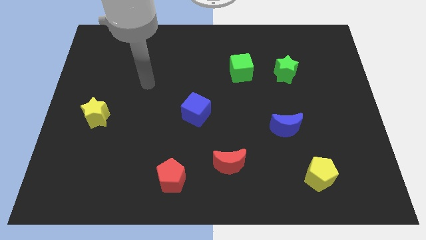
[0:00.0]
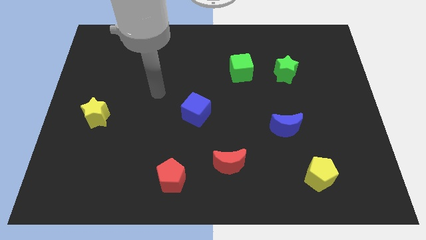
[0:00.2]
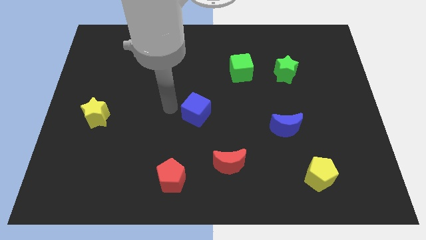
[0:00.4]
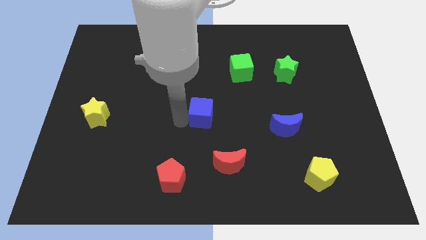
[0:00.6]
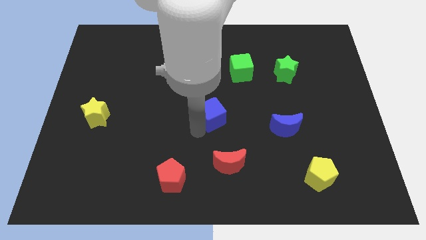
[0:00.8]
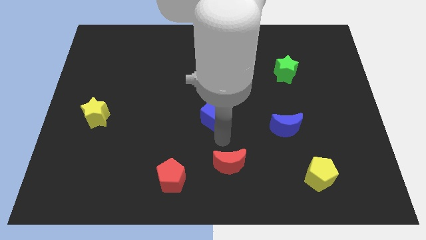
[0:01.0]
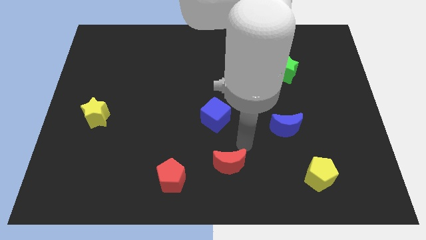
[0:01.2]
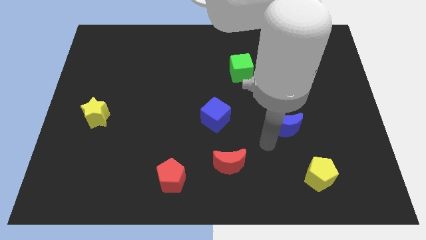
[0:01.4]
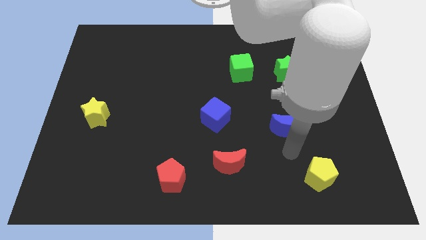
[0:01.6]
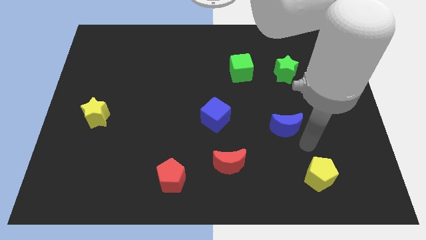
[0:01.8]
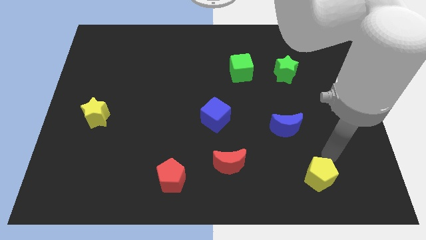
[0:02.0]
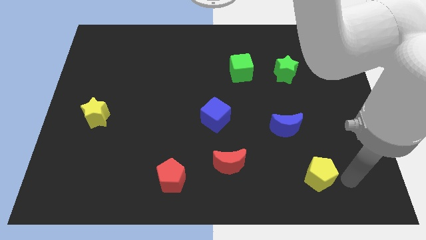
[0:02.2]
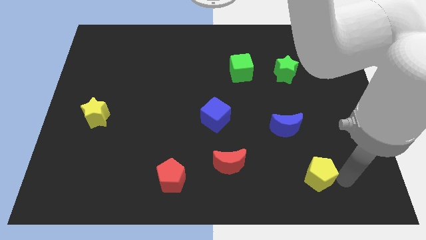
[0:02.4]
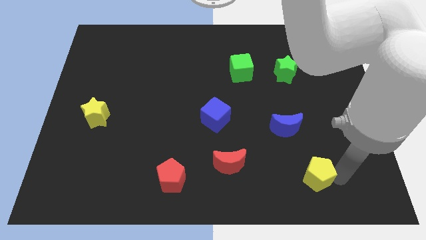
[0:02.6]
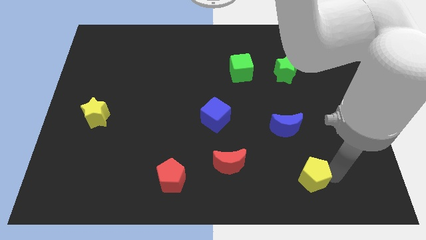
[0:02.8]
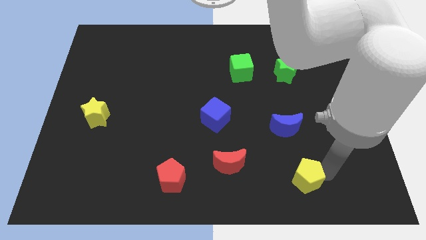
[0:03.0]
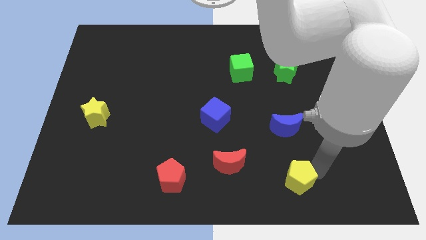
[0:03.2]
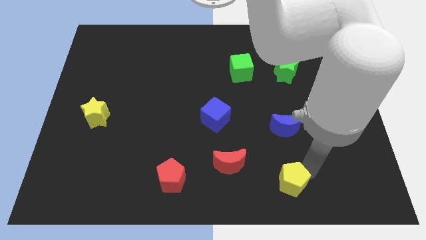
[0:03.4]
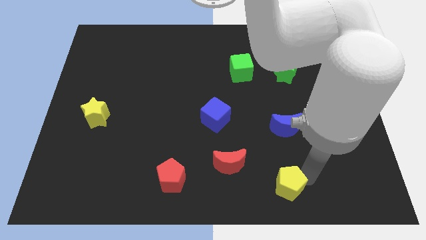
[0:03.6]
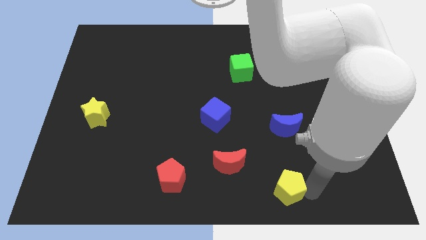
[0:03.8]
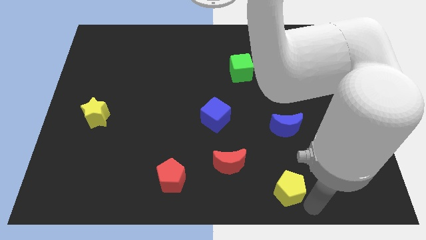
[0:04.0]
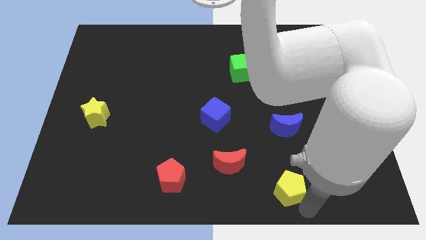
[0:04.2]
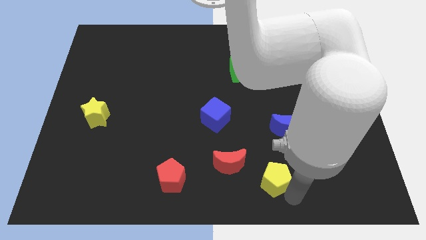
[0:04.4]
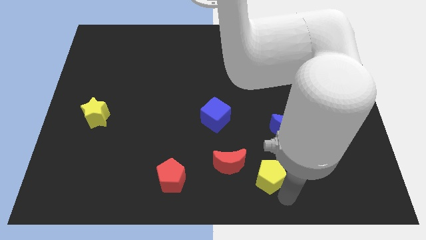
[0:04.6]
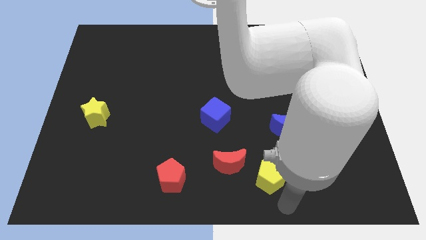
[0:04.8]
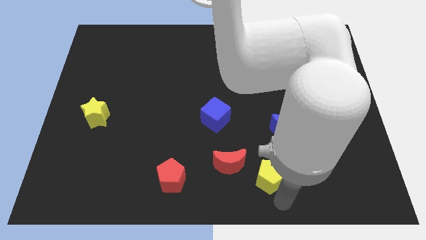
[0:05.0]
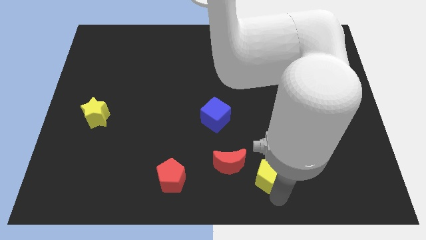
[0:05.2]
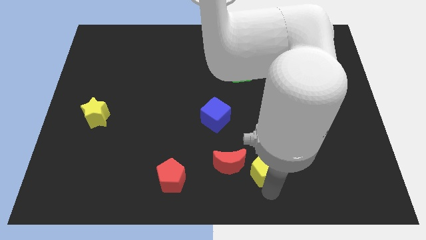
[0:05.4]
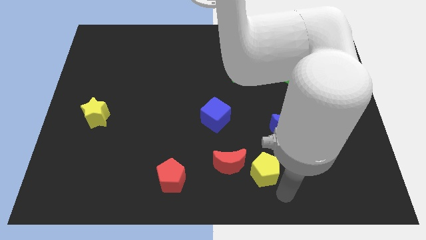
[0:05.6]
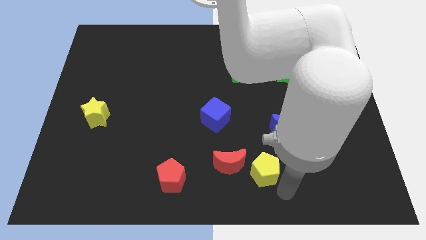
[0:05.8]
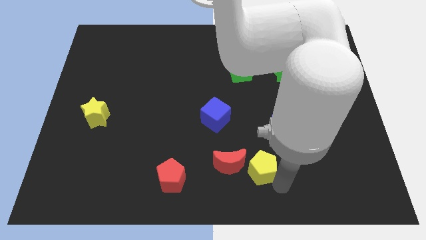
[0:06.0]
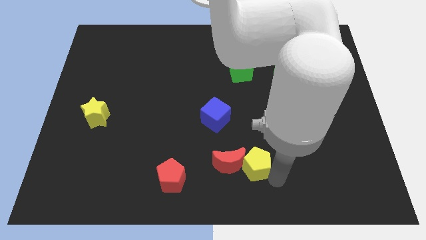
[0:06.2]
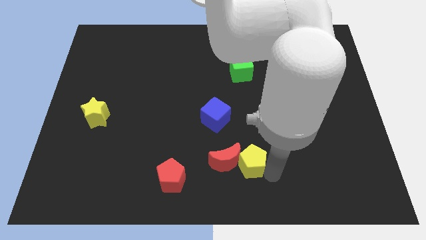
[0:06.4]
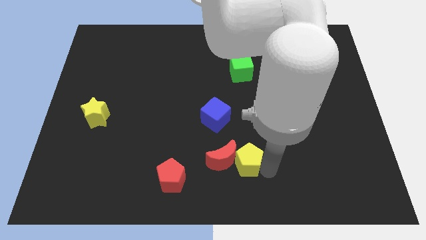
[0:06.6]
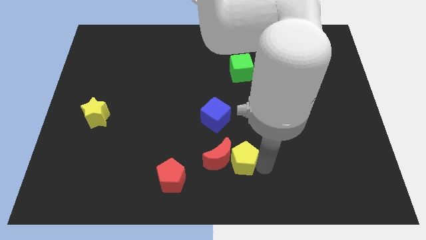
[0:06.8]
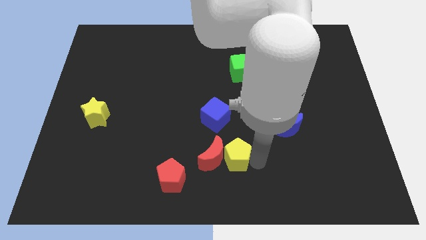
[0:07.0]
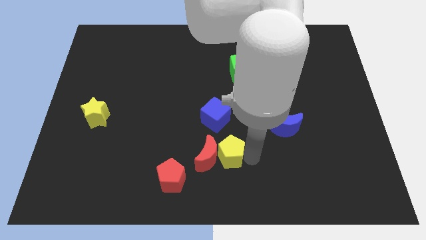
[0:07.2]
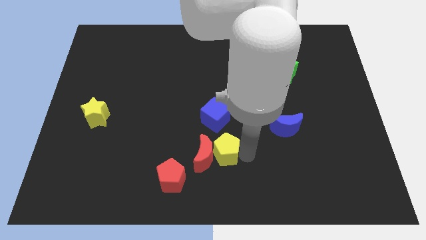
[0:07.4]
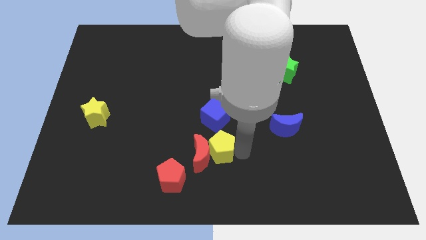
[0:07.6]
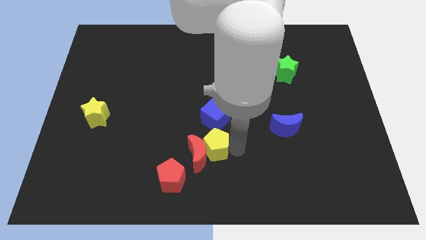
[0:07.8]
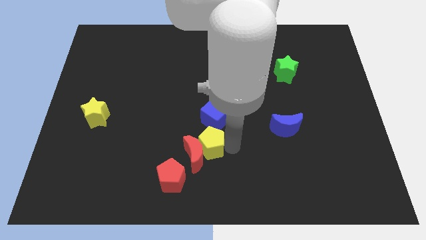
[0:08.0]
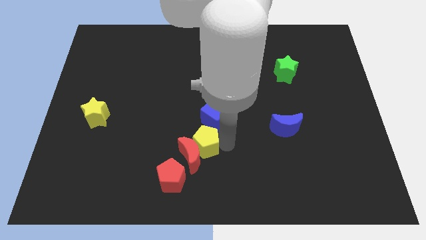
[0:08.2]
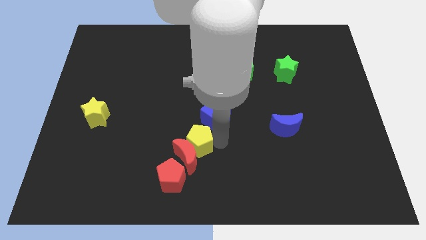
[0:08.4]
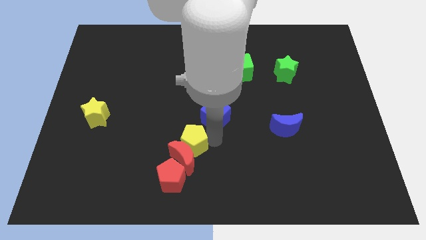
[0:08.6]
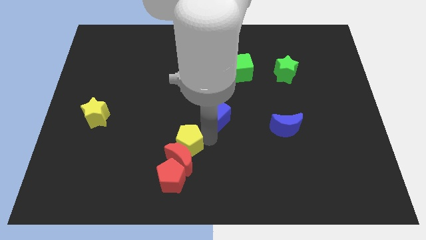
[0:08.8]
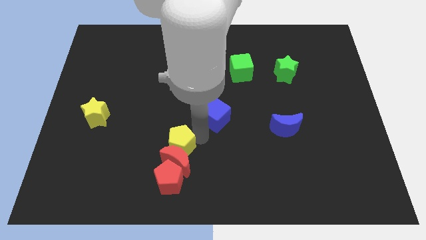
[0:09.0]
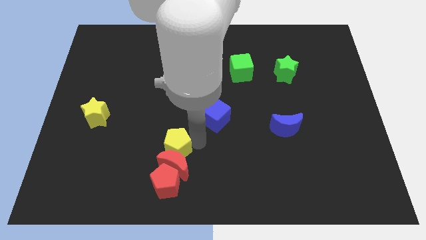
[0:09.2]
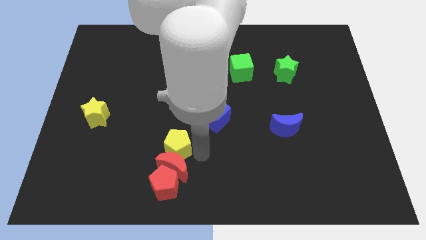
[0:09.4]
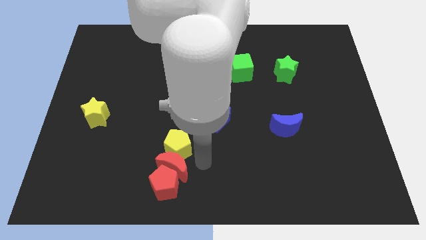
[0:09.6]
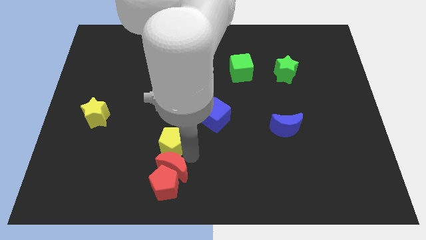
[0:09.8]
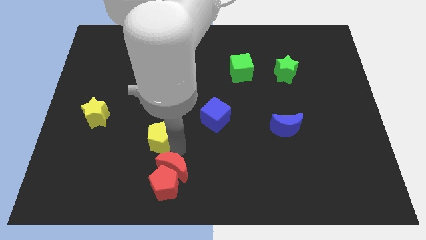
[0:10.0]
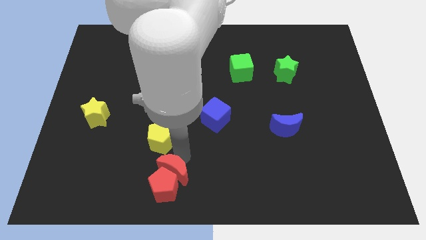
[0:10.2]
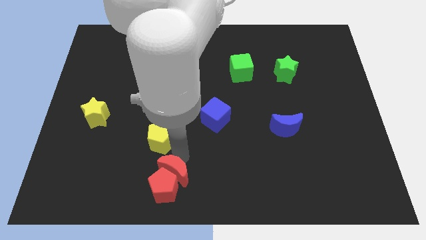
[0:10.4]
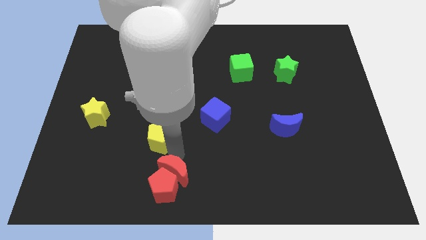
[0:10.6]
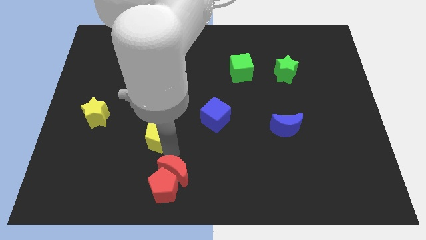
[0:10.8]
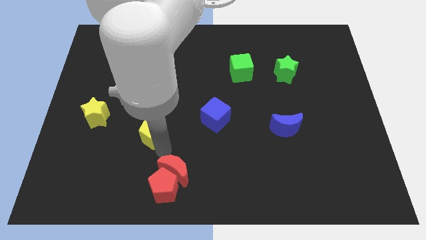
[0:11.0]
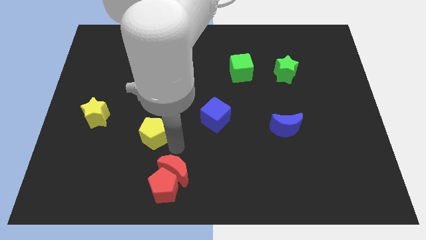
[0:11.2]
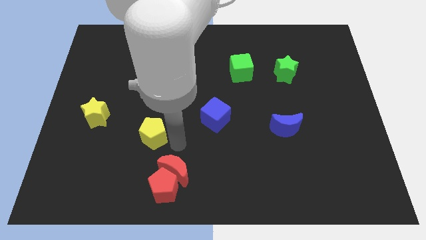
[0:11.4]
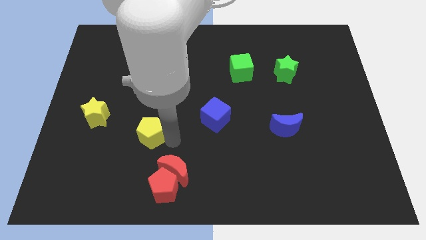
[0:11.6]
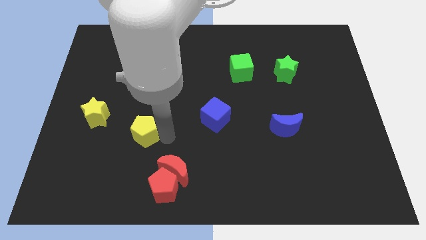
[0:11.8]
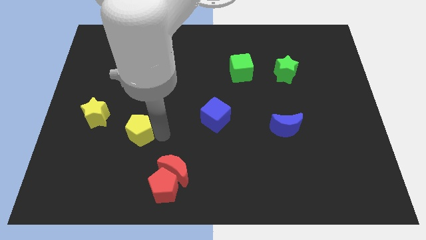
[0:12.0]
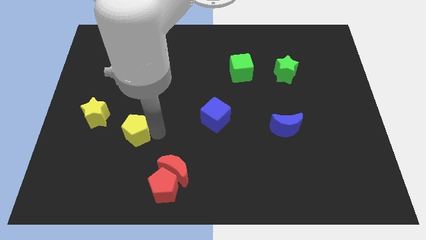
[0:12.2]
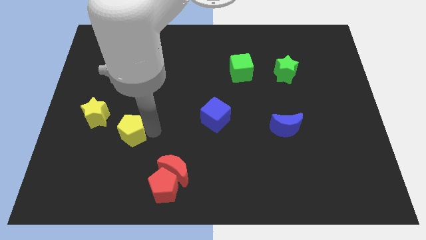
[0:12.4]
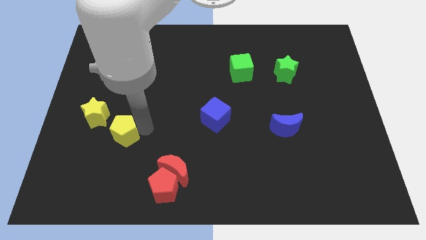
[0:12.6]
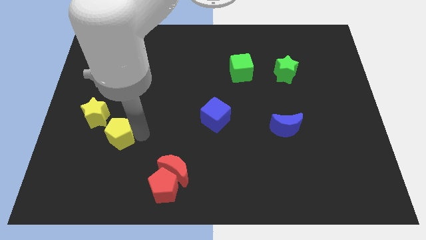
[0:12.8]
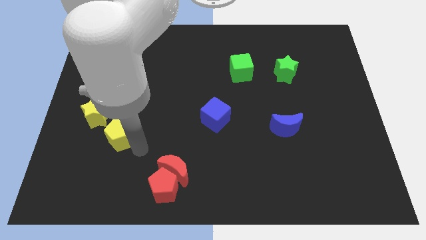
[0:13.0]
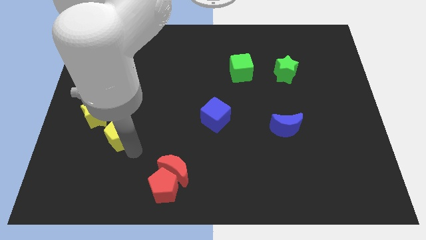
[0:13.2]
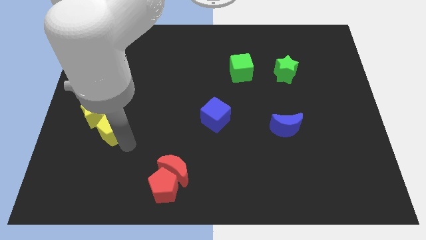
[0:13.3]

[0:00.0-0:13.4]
move the yellow pentagon next to the yellow star
